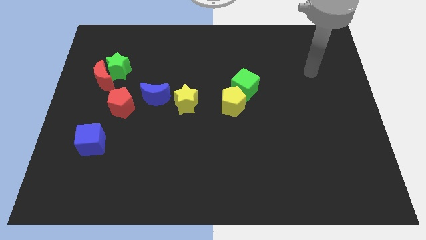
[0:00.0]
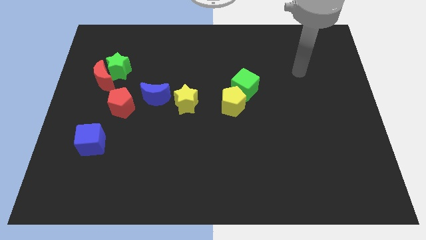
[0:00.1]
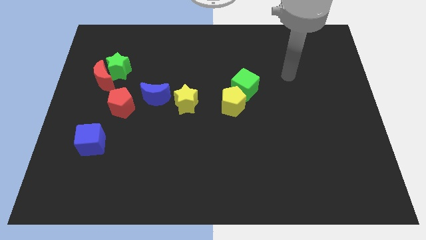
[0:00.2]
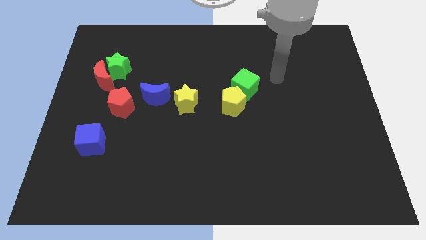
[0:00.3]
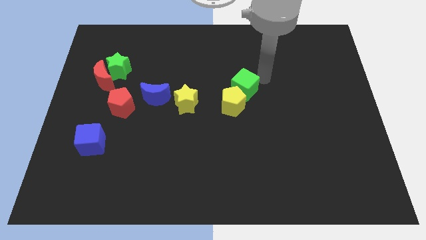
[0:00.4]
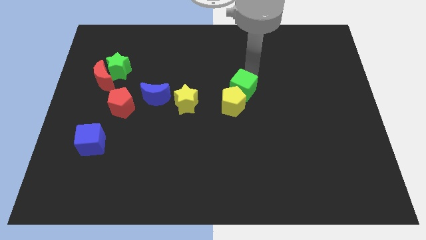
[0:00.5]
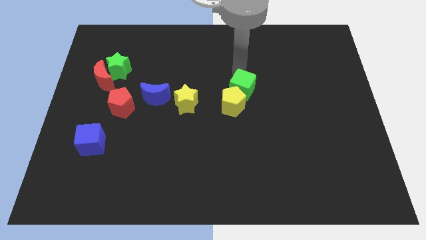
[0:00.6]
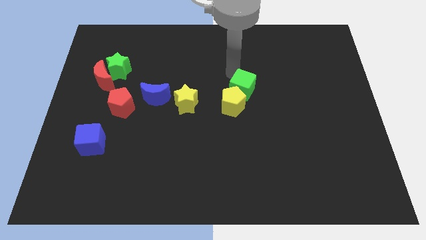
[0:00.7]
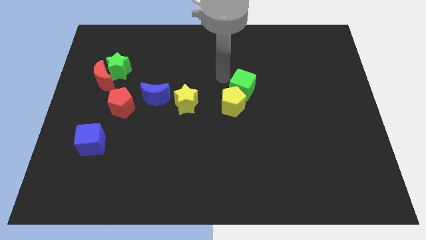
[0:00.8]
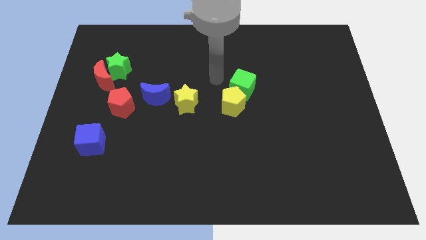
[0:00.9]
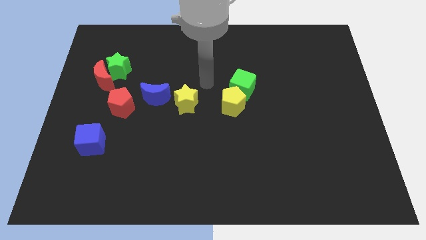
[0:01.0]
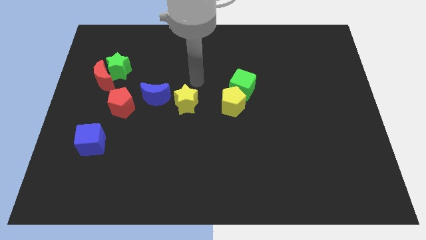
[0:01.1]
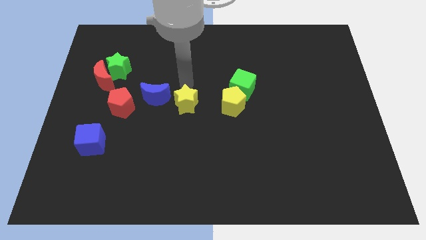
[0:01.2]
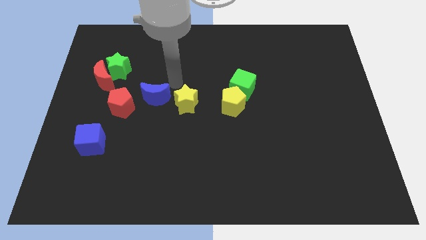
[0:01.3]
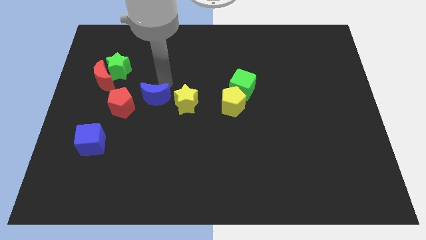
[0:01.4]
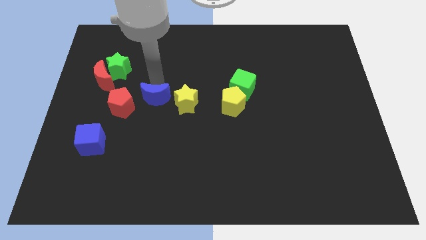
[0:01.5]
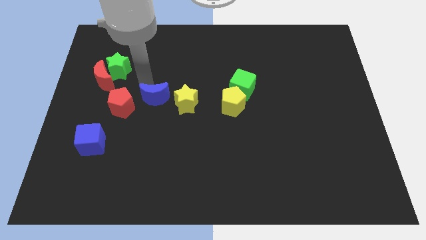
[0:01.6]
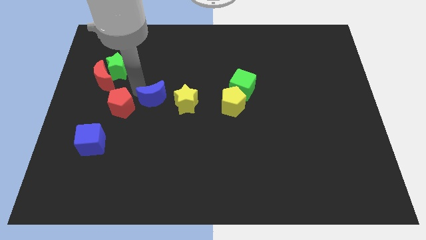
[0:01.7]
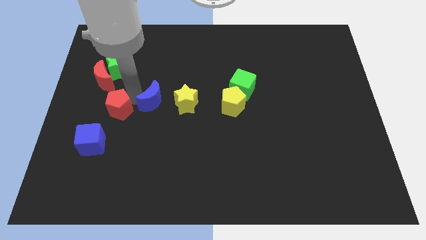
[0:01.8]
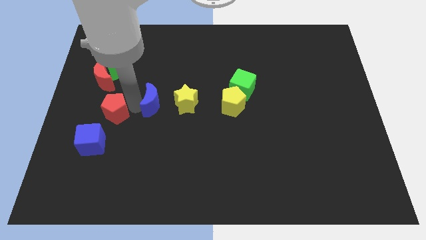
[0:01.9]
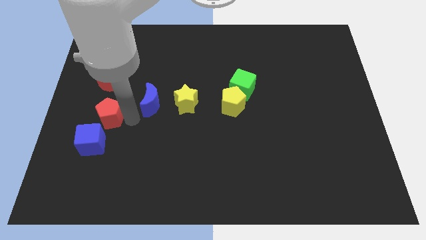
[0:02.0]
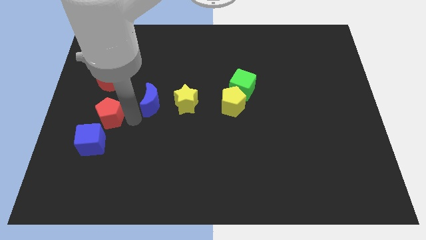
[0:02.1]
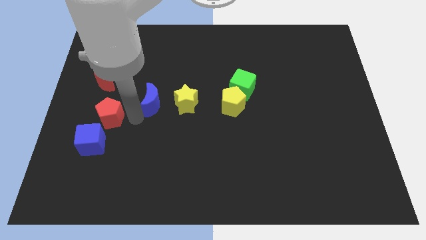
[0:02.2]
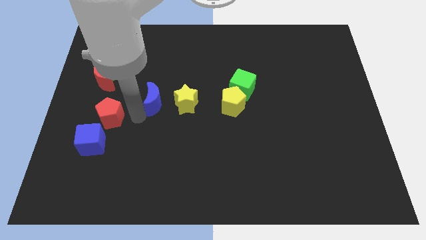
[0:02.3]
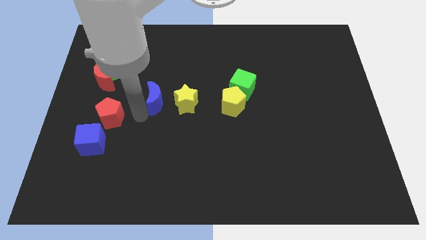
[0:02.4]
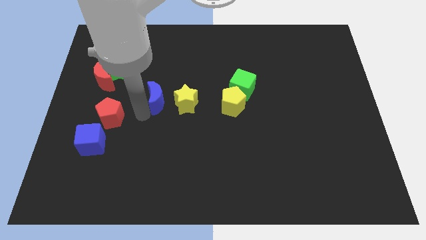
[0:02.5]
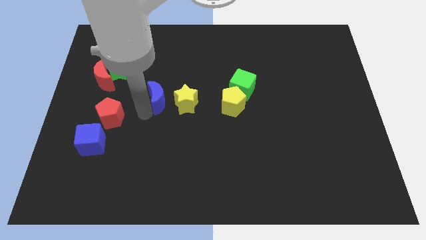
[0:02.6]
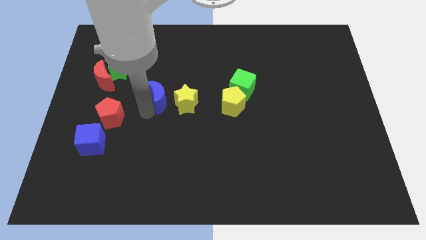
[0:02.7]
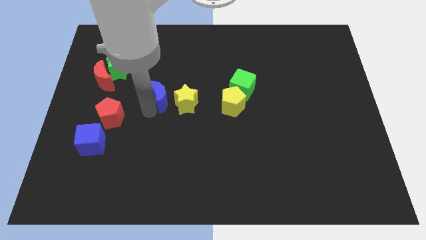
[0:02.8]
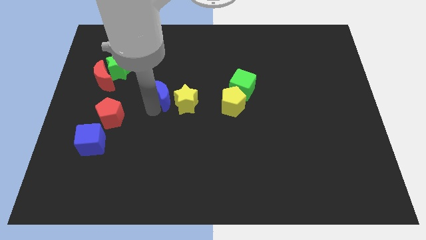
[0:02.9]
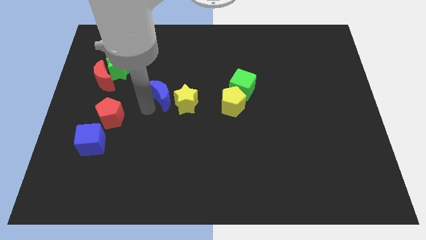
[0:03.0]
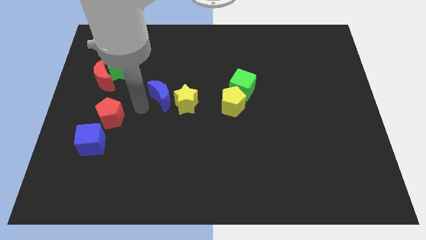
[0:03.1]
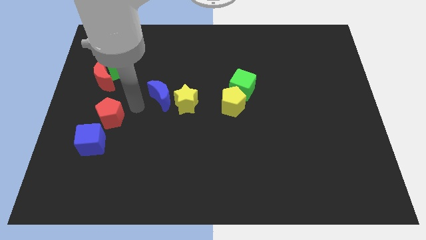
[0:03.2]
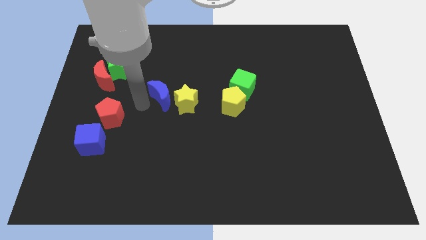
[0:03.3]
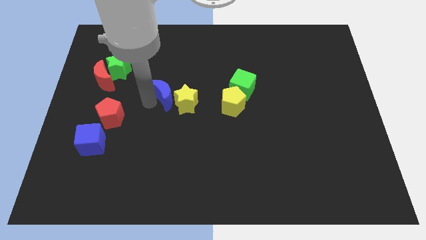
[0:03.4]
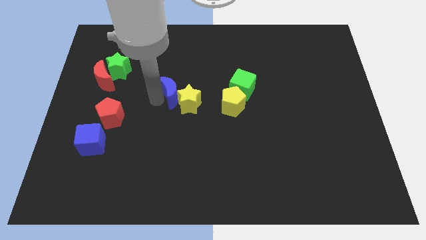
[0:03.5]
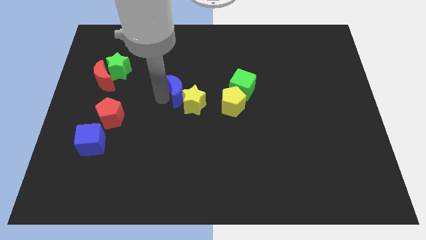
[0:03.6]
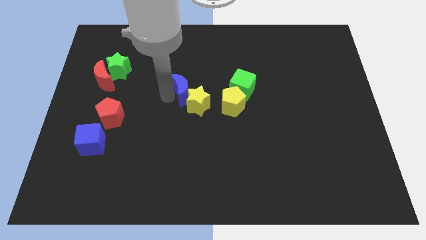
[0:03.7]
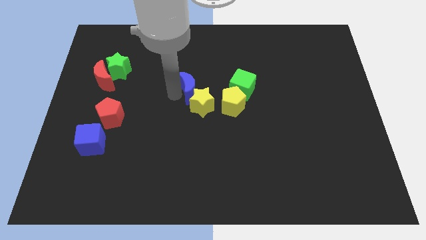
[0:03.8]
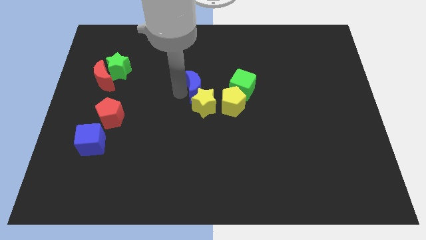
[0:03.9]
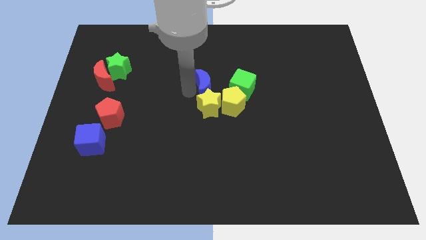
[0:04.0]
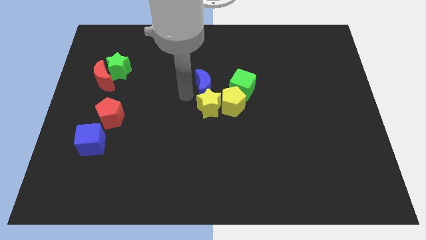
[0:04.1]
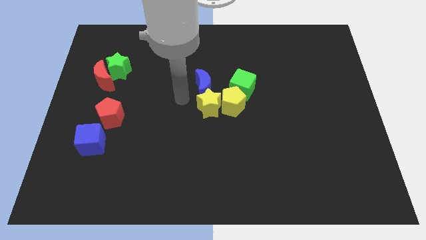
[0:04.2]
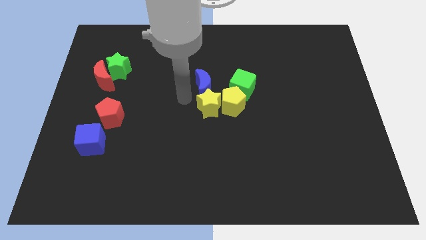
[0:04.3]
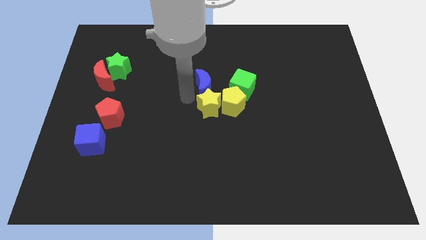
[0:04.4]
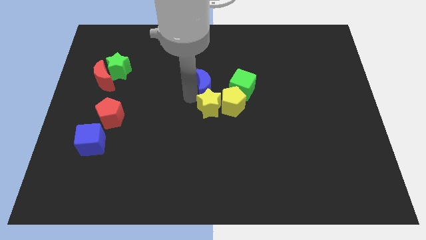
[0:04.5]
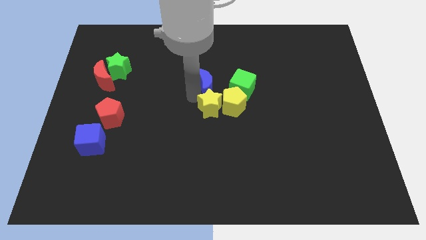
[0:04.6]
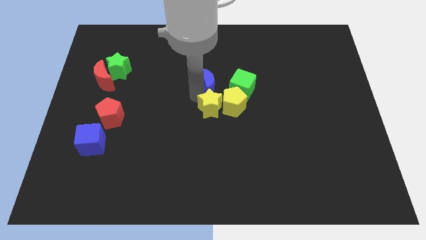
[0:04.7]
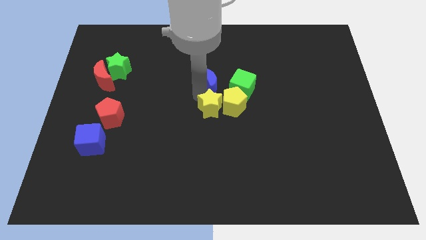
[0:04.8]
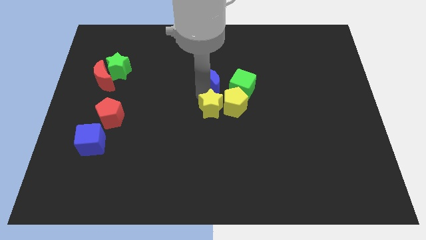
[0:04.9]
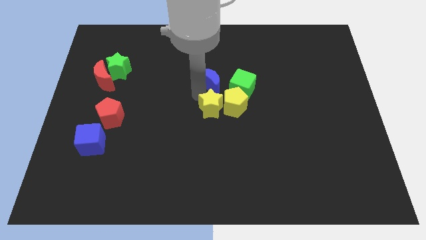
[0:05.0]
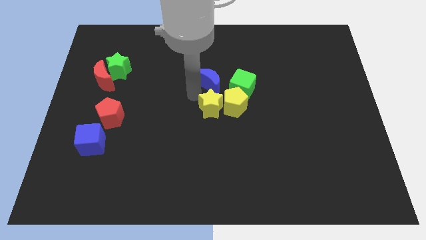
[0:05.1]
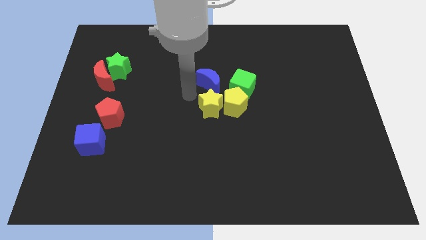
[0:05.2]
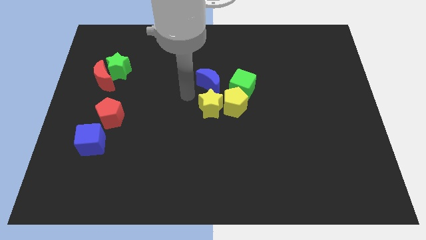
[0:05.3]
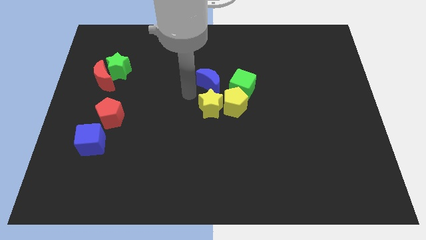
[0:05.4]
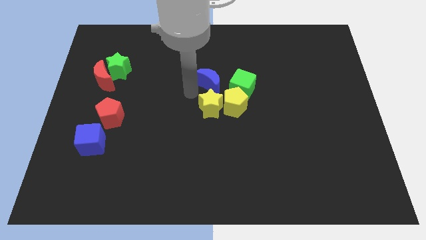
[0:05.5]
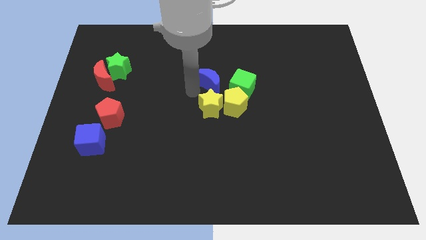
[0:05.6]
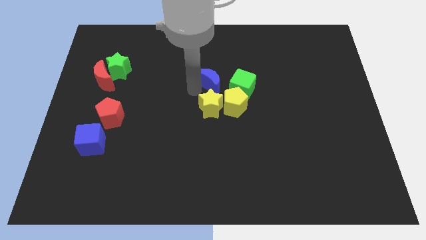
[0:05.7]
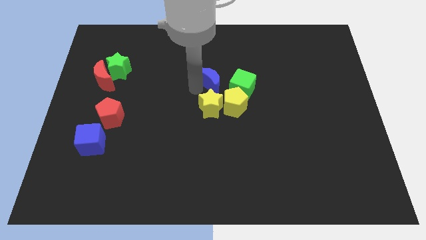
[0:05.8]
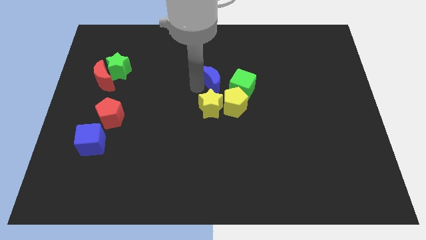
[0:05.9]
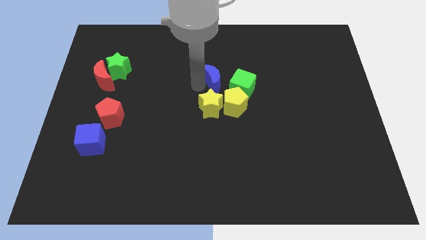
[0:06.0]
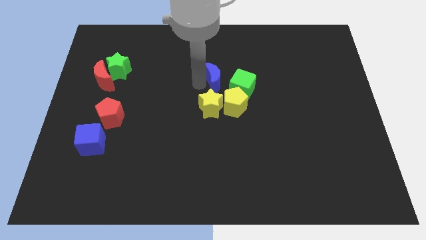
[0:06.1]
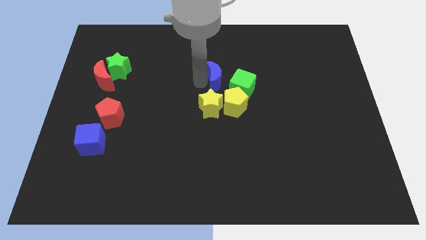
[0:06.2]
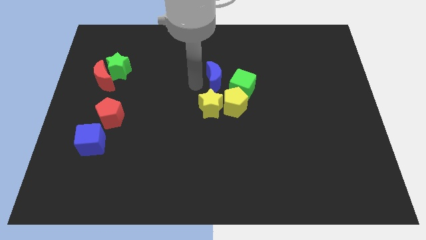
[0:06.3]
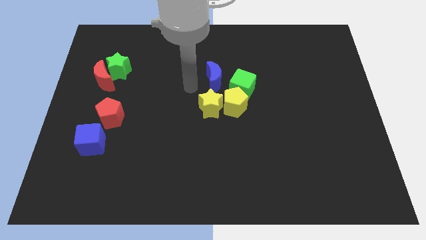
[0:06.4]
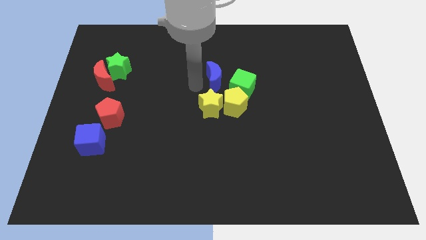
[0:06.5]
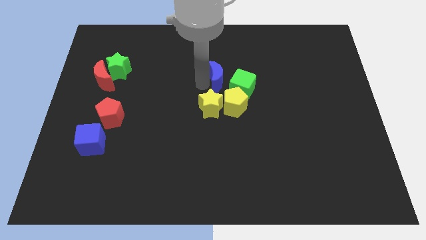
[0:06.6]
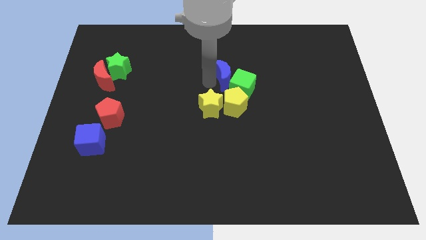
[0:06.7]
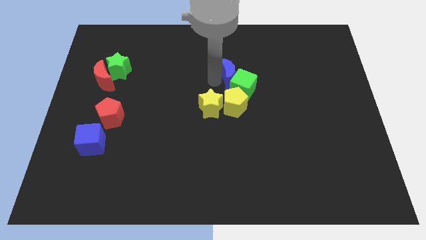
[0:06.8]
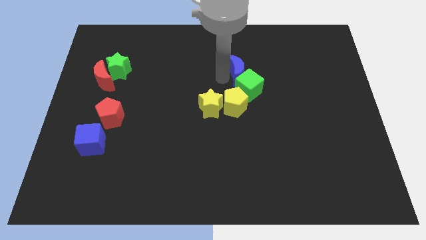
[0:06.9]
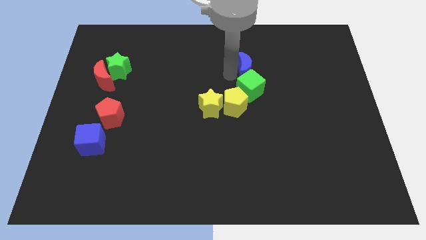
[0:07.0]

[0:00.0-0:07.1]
slide the blue moon to the top right of the green cube
